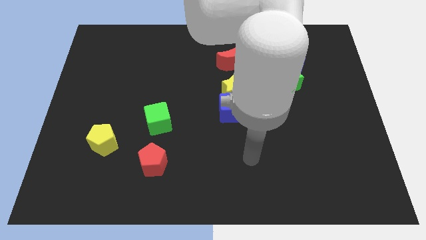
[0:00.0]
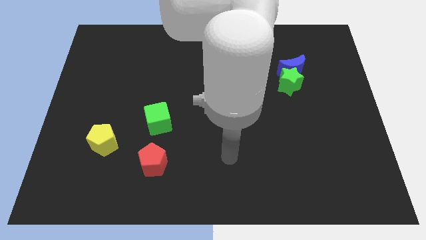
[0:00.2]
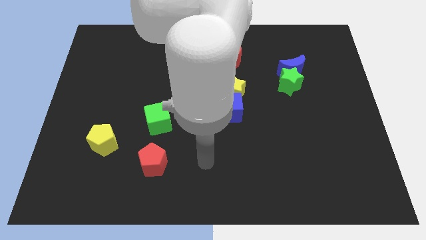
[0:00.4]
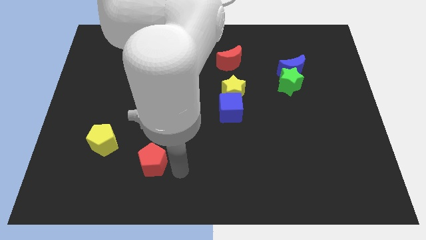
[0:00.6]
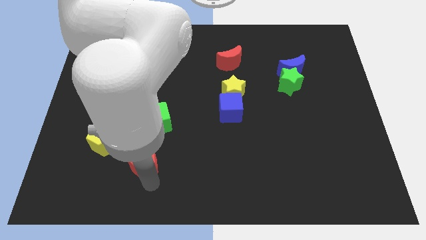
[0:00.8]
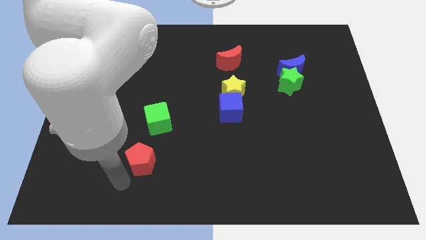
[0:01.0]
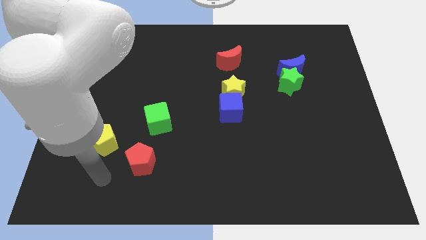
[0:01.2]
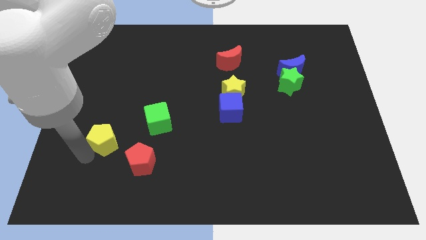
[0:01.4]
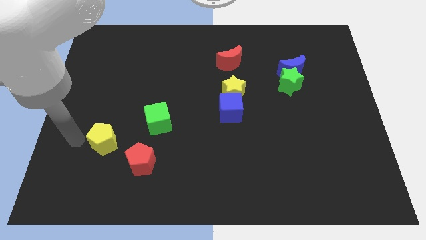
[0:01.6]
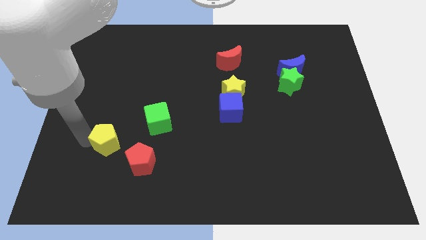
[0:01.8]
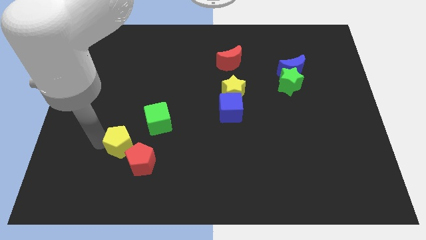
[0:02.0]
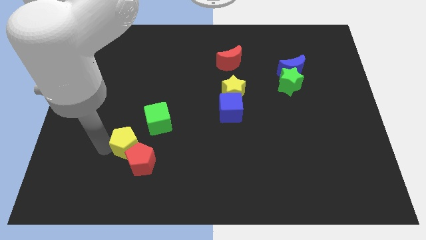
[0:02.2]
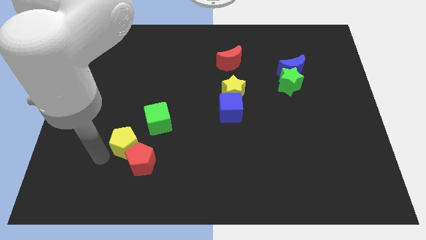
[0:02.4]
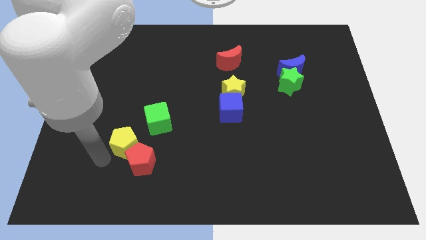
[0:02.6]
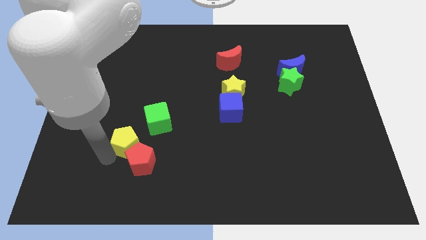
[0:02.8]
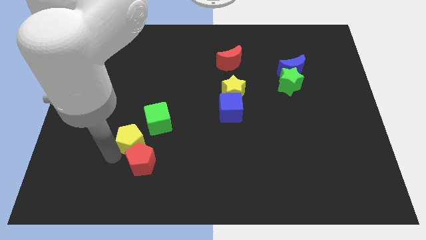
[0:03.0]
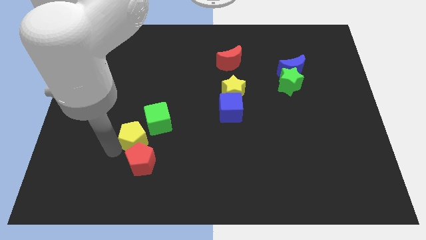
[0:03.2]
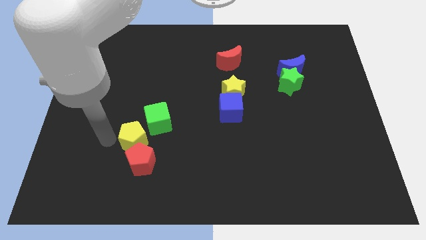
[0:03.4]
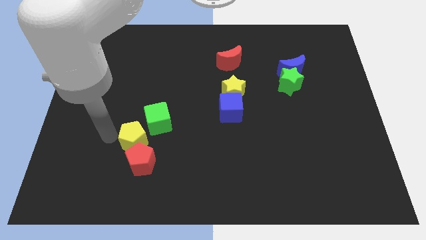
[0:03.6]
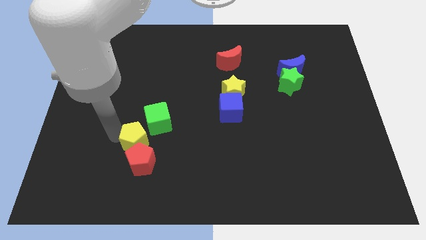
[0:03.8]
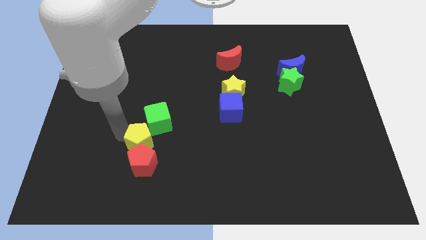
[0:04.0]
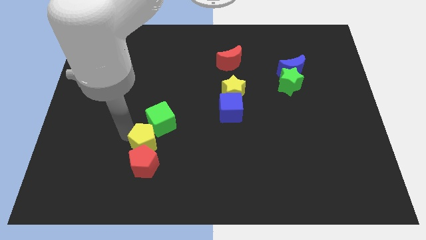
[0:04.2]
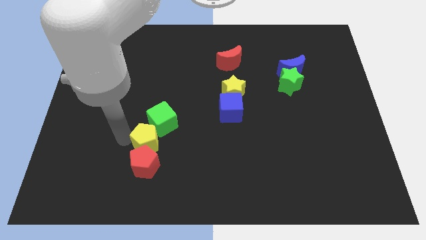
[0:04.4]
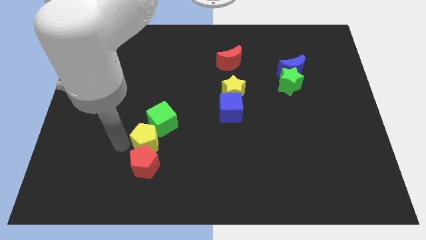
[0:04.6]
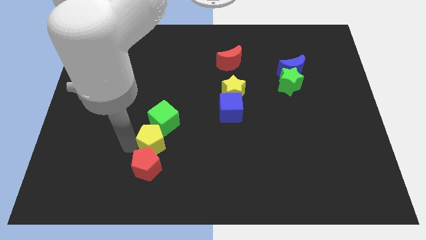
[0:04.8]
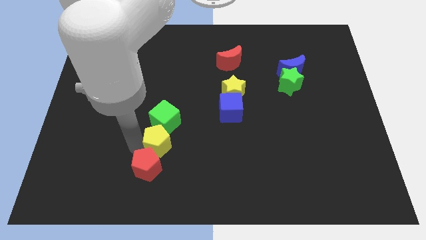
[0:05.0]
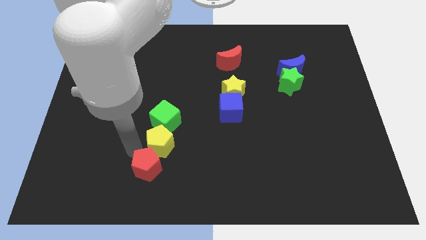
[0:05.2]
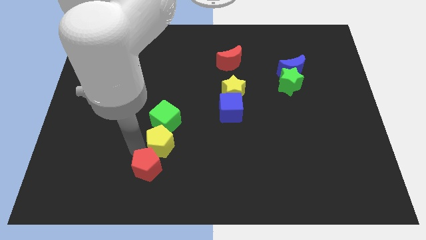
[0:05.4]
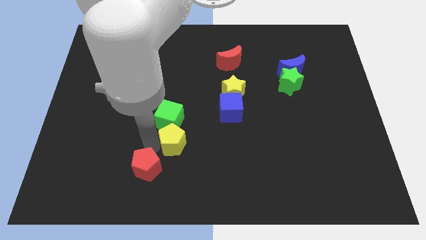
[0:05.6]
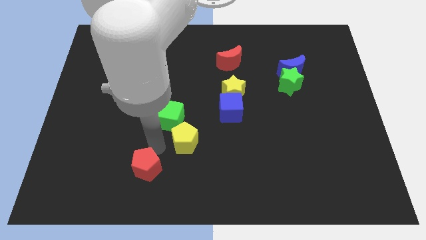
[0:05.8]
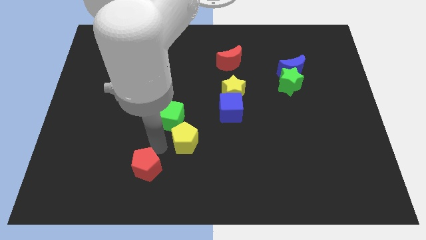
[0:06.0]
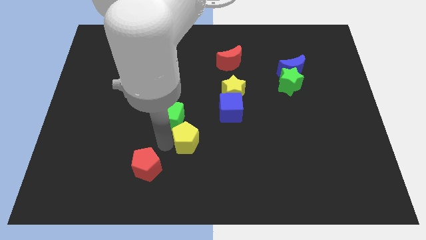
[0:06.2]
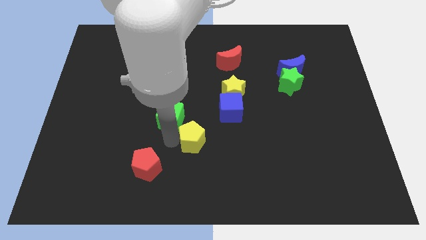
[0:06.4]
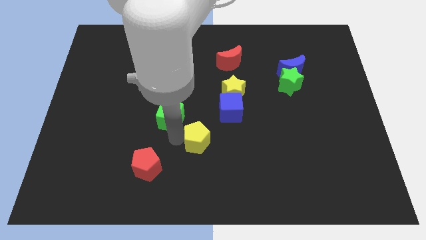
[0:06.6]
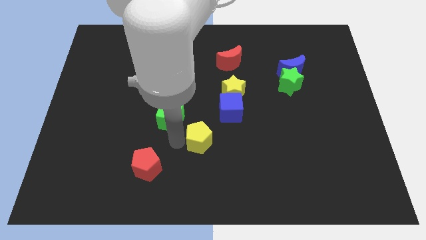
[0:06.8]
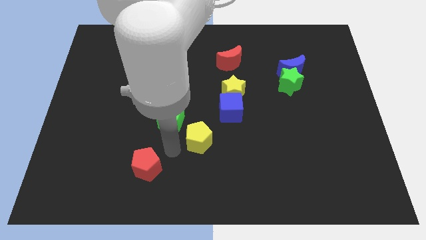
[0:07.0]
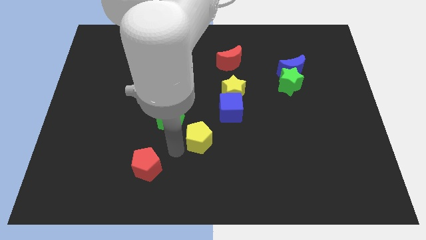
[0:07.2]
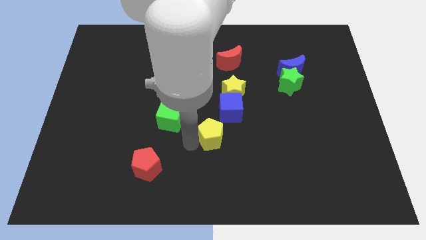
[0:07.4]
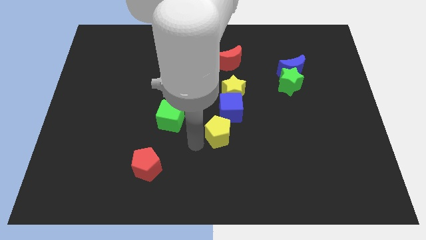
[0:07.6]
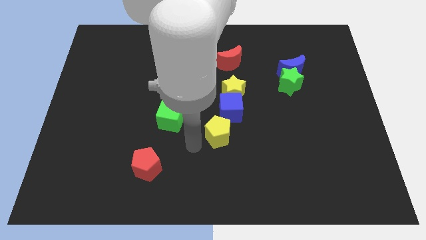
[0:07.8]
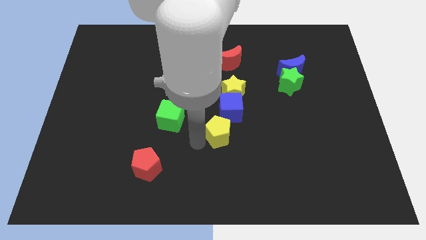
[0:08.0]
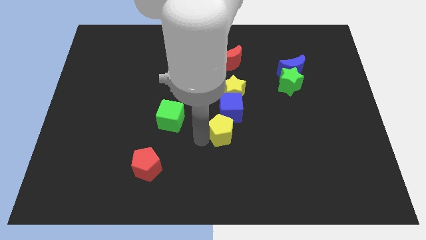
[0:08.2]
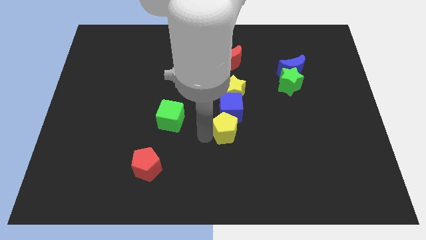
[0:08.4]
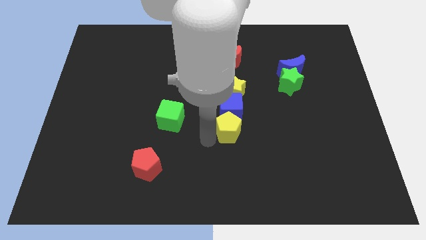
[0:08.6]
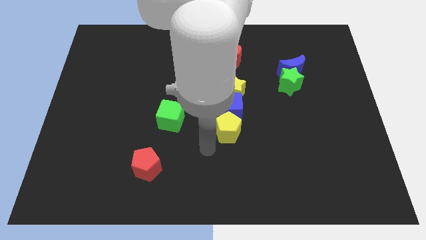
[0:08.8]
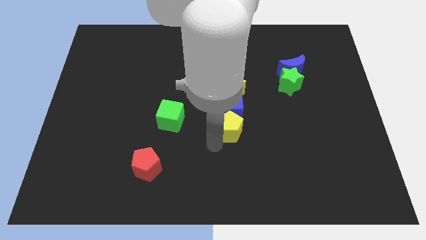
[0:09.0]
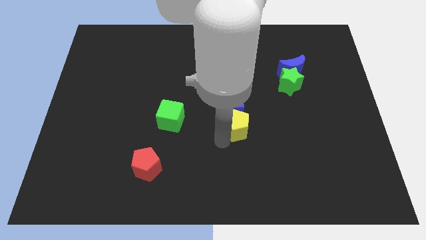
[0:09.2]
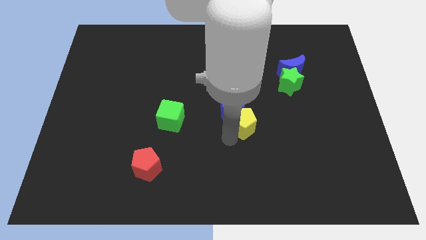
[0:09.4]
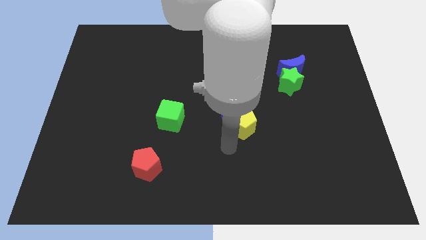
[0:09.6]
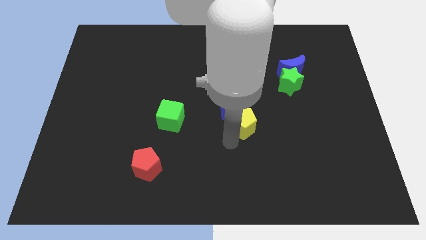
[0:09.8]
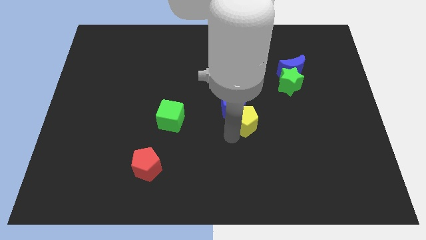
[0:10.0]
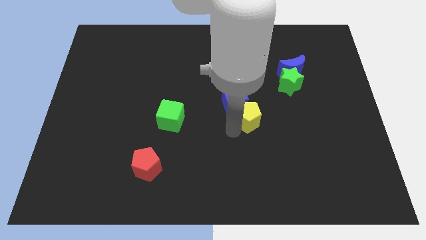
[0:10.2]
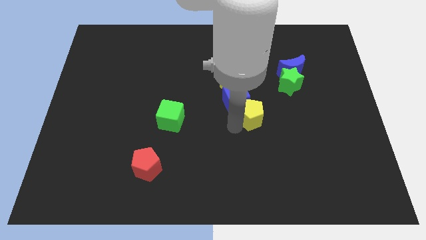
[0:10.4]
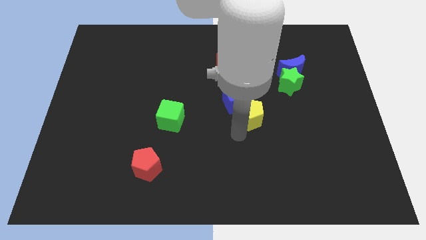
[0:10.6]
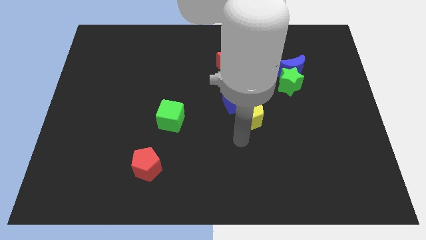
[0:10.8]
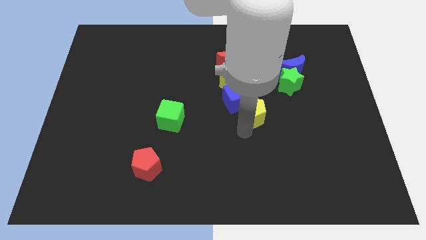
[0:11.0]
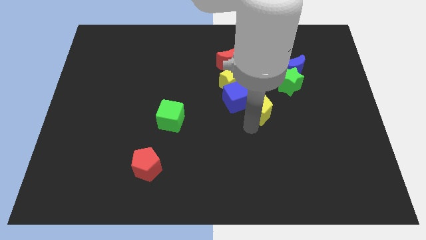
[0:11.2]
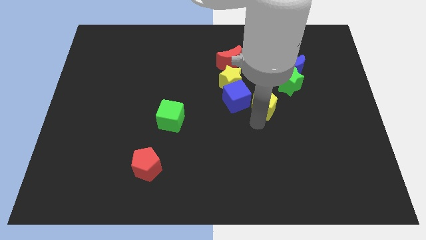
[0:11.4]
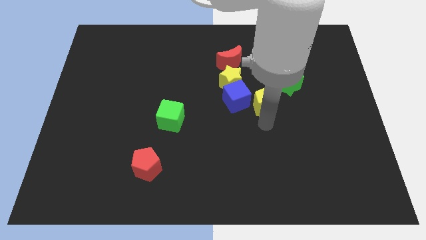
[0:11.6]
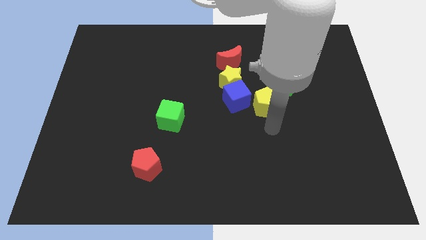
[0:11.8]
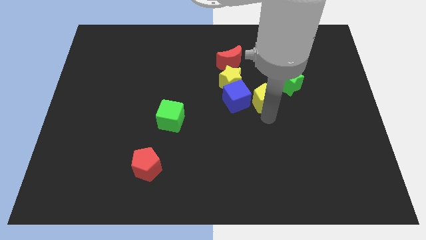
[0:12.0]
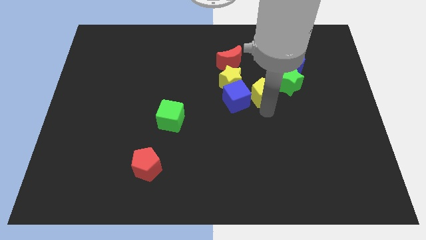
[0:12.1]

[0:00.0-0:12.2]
move the yellow pentagon to the top right side of the blue cube
